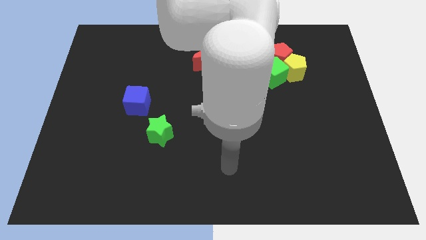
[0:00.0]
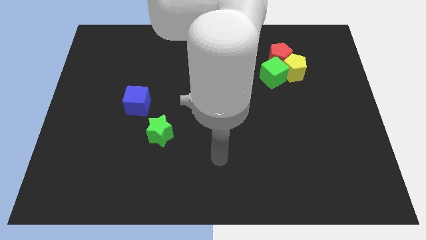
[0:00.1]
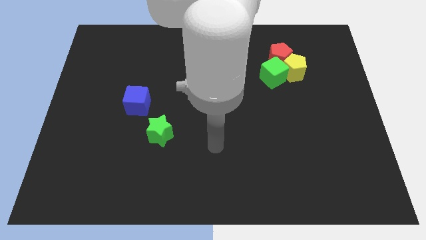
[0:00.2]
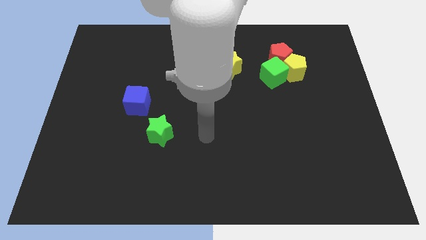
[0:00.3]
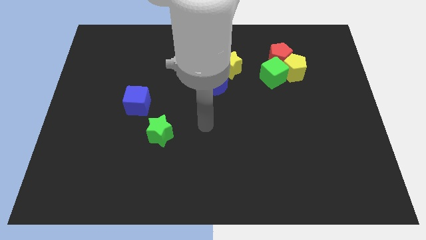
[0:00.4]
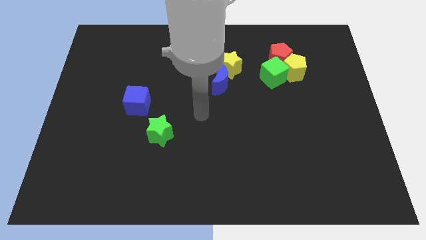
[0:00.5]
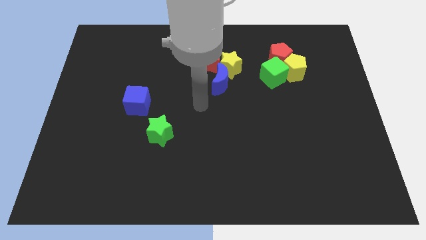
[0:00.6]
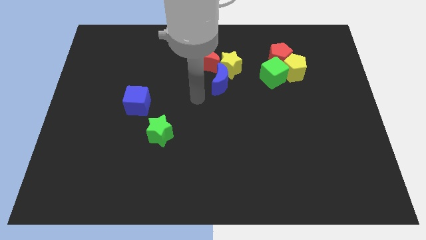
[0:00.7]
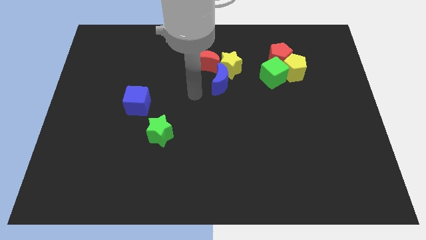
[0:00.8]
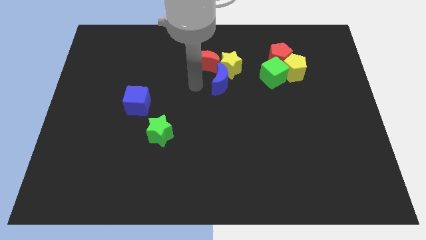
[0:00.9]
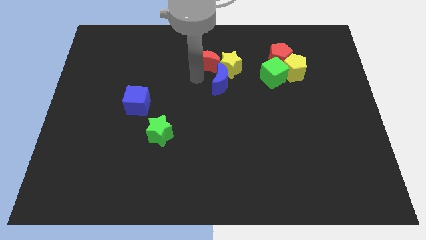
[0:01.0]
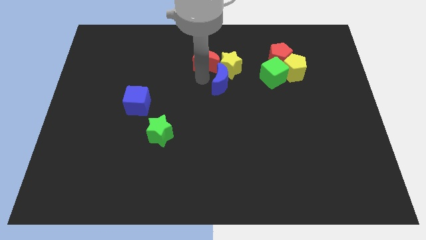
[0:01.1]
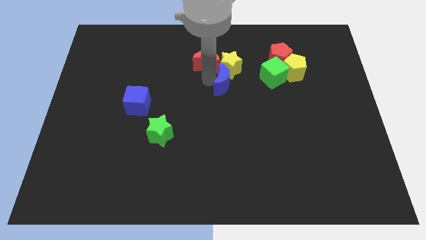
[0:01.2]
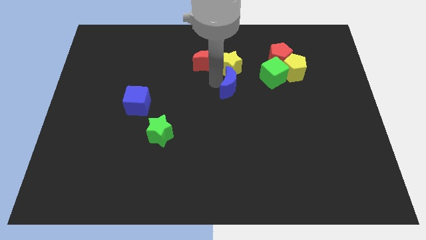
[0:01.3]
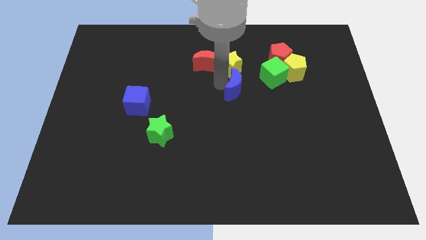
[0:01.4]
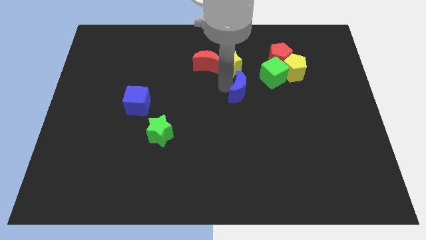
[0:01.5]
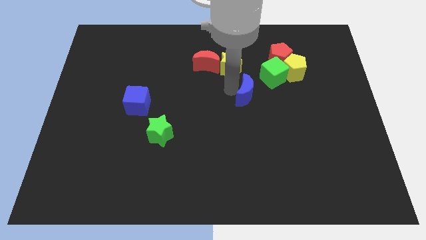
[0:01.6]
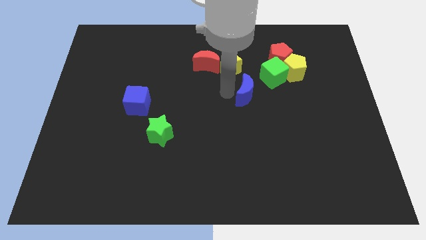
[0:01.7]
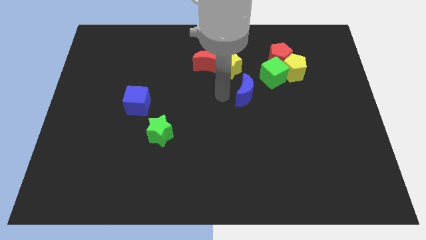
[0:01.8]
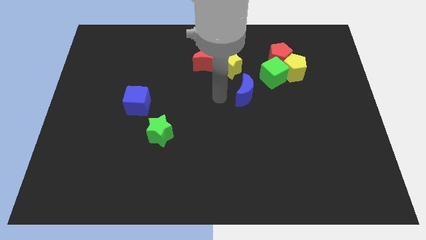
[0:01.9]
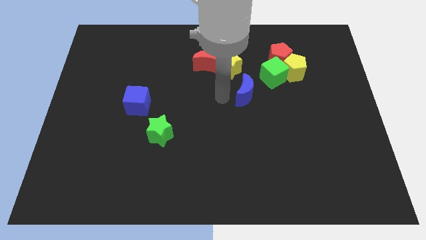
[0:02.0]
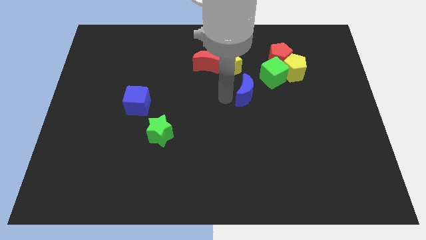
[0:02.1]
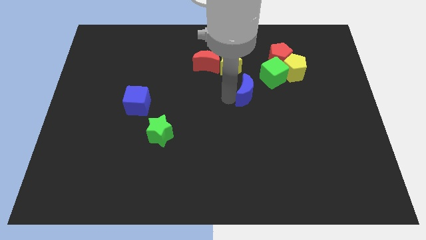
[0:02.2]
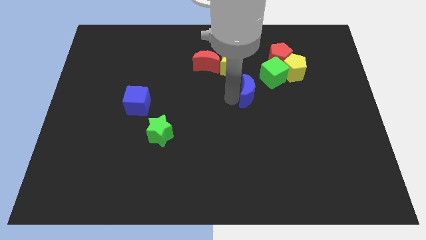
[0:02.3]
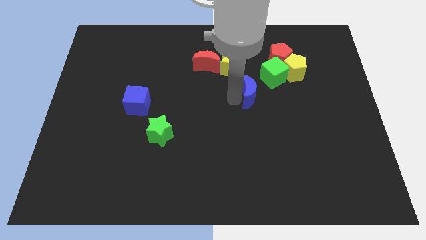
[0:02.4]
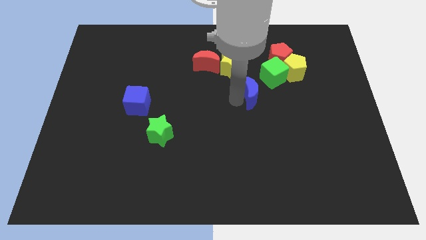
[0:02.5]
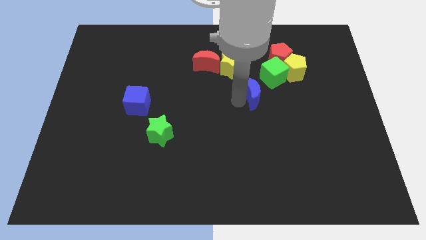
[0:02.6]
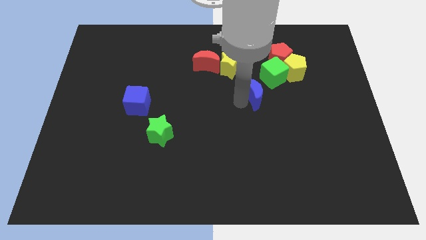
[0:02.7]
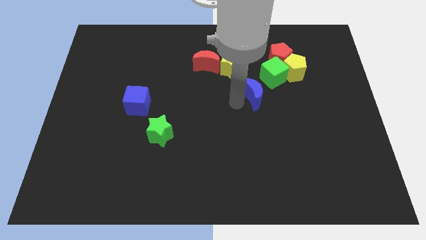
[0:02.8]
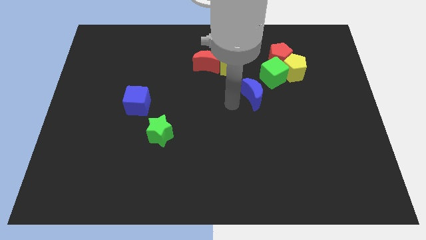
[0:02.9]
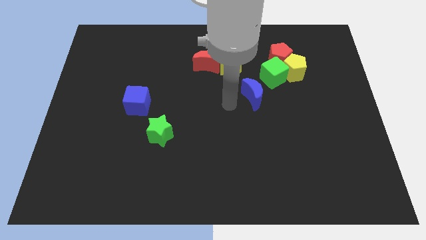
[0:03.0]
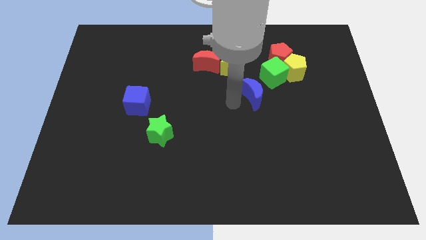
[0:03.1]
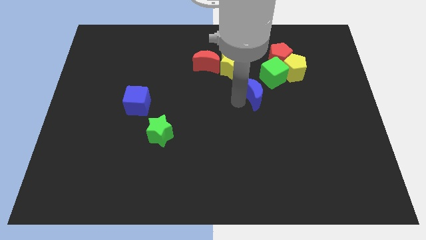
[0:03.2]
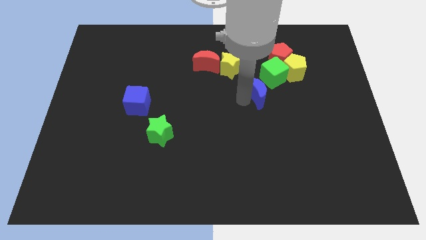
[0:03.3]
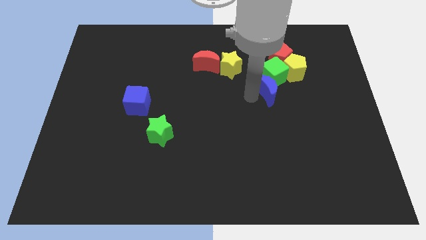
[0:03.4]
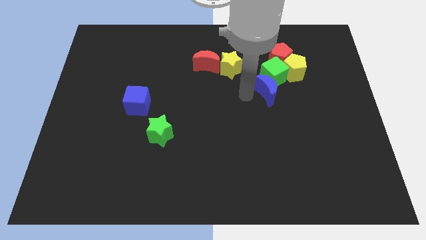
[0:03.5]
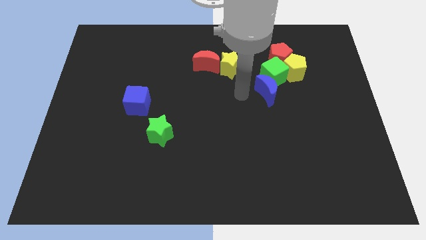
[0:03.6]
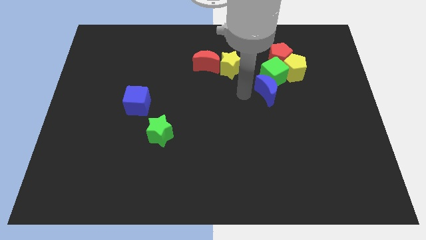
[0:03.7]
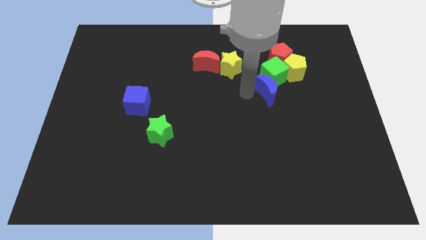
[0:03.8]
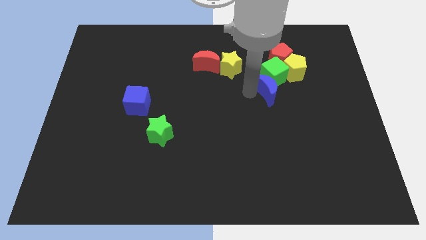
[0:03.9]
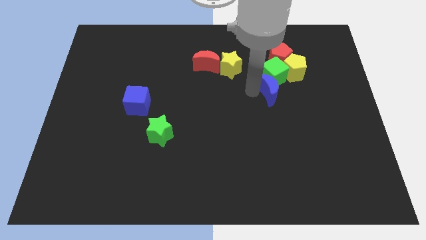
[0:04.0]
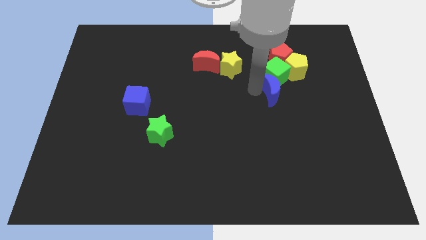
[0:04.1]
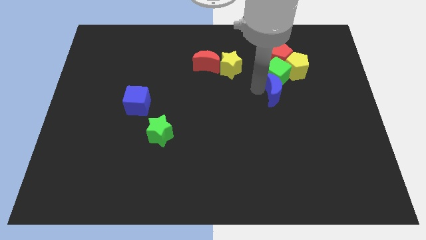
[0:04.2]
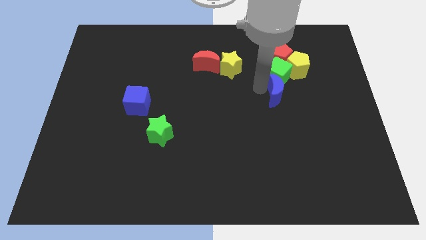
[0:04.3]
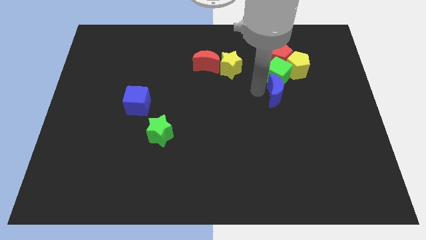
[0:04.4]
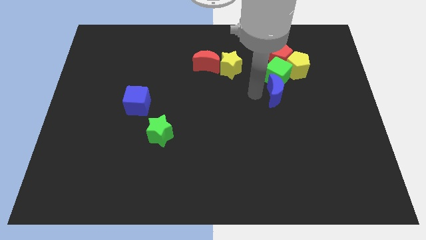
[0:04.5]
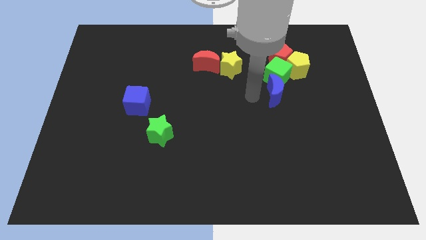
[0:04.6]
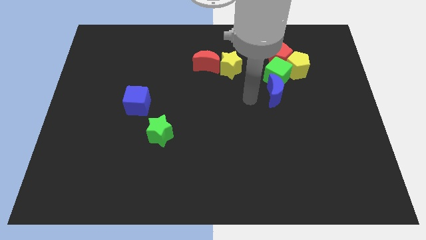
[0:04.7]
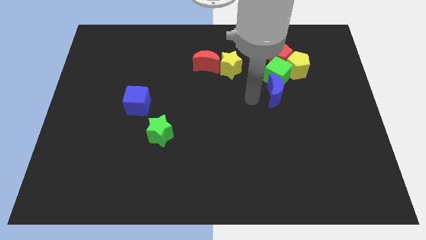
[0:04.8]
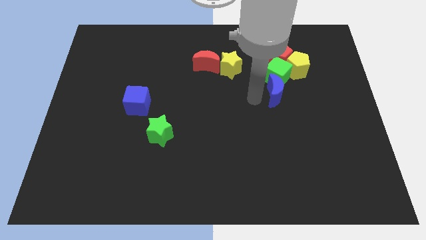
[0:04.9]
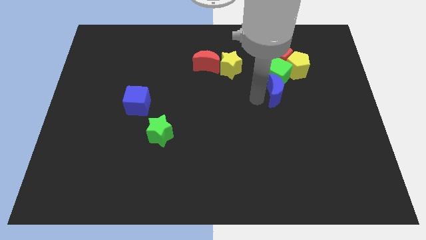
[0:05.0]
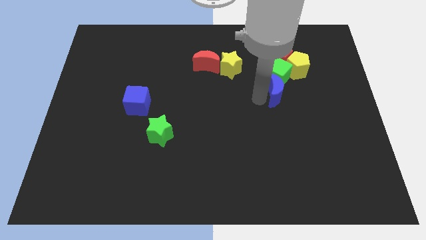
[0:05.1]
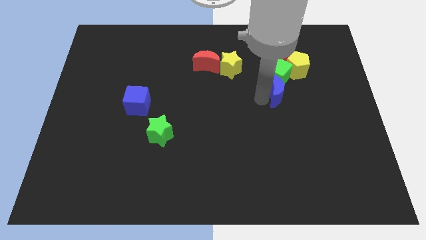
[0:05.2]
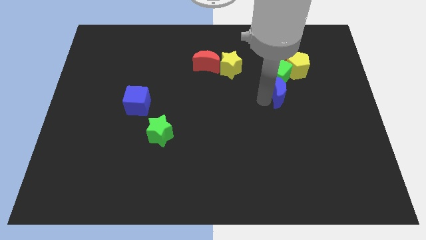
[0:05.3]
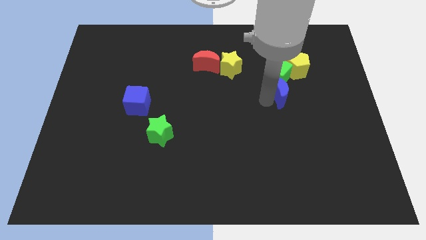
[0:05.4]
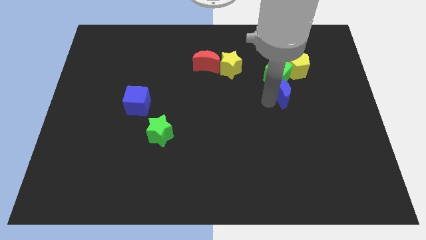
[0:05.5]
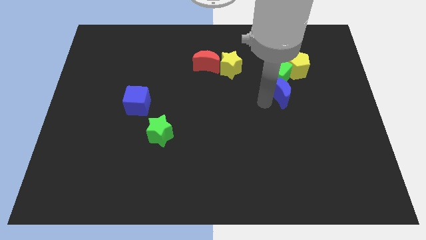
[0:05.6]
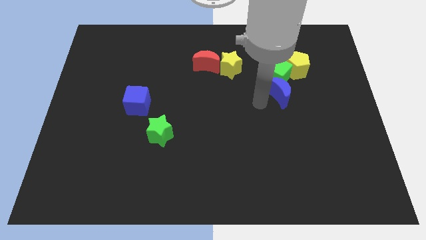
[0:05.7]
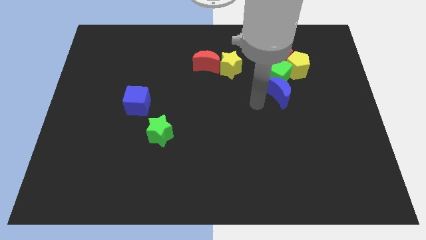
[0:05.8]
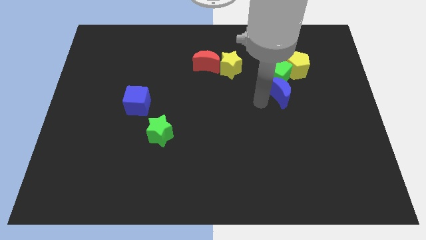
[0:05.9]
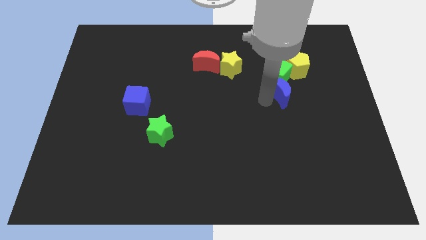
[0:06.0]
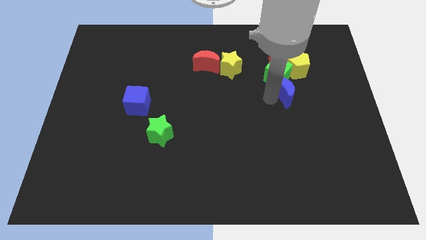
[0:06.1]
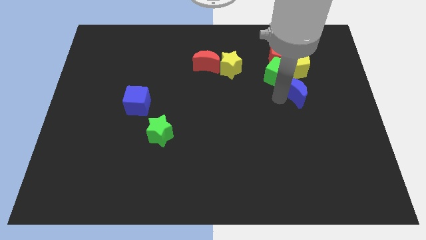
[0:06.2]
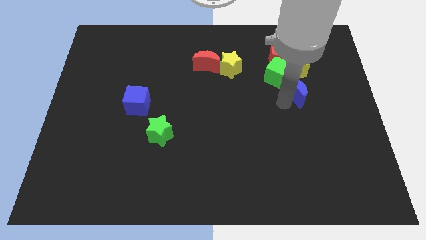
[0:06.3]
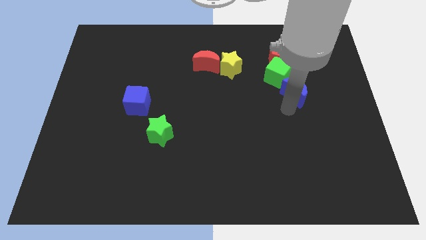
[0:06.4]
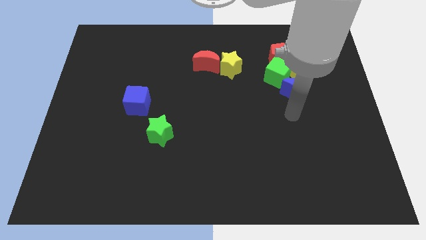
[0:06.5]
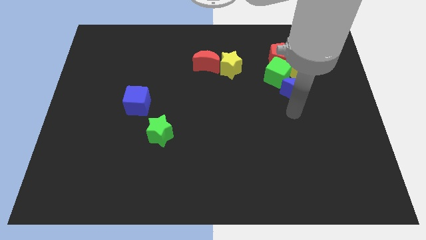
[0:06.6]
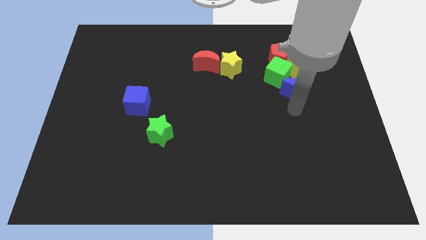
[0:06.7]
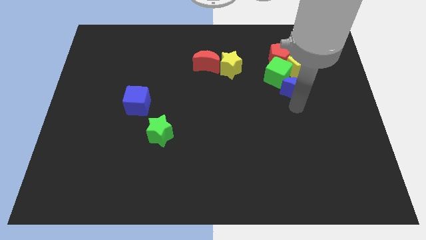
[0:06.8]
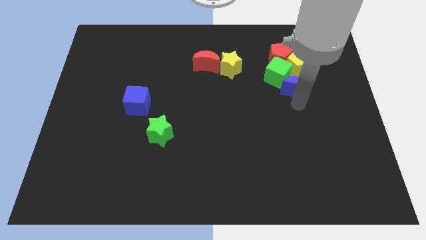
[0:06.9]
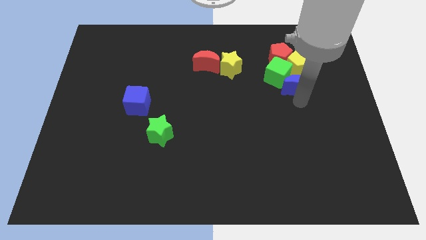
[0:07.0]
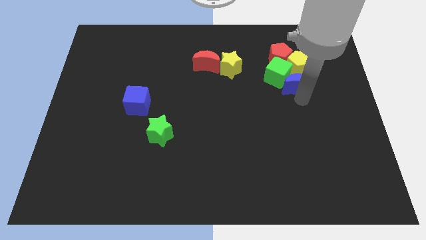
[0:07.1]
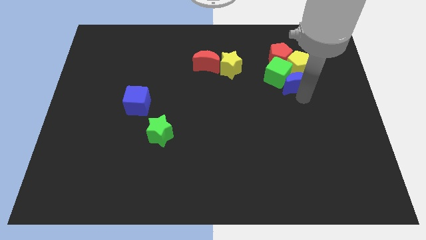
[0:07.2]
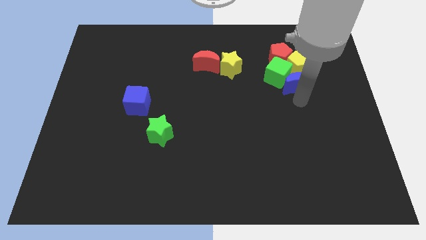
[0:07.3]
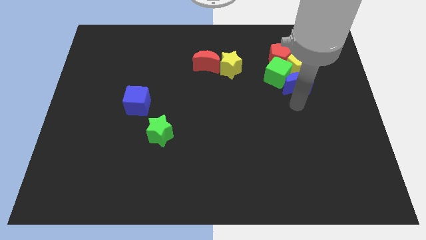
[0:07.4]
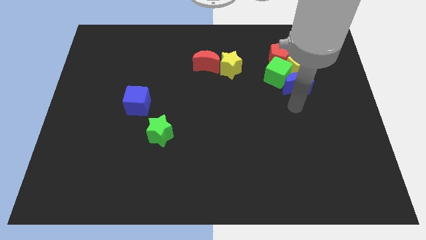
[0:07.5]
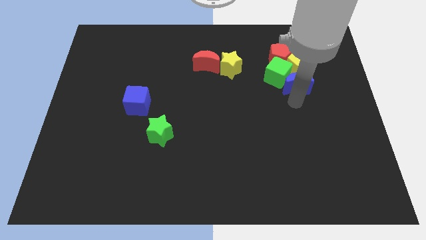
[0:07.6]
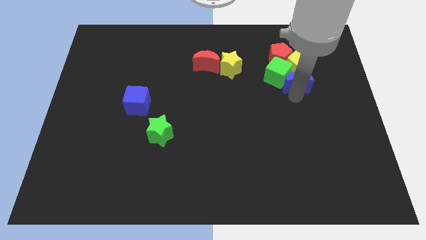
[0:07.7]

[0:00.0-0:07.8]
push the blue moon close to the yellow pentagon
